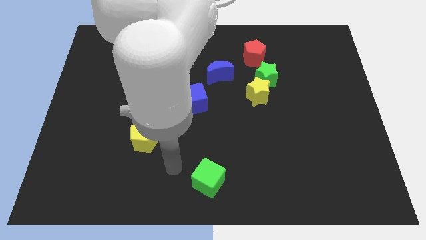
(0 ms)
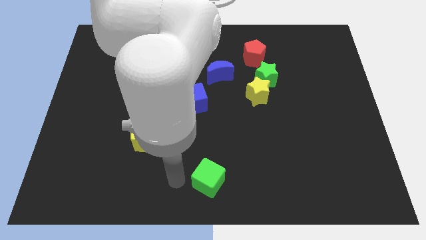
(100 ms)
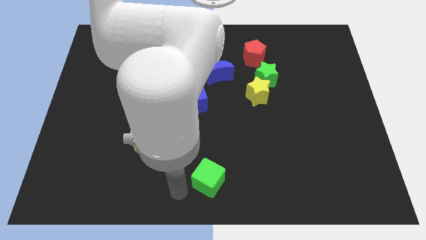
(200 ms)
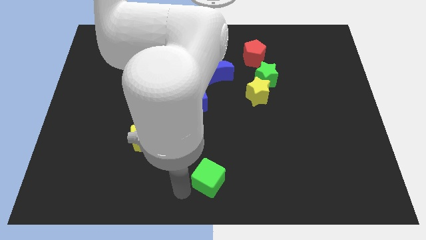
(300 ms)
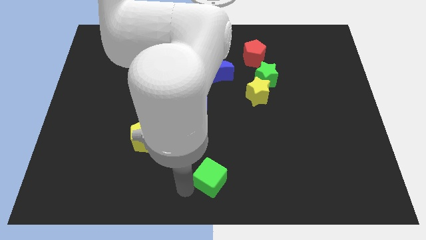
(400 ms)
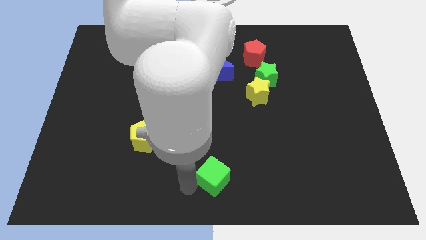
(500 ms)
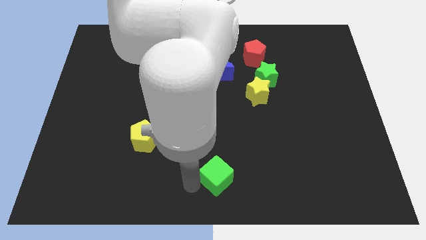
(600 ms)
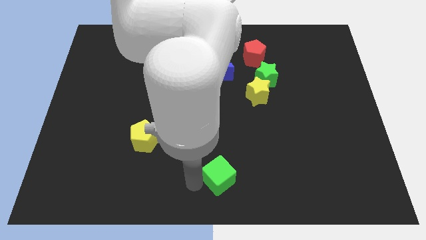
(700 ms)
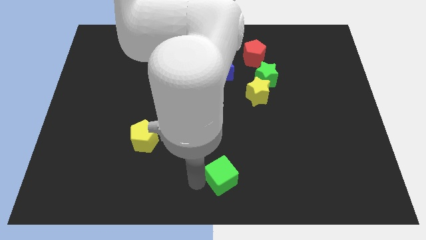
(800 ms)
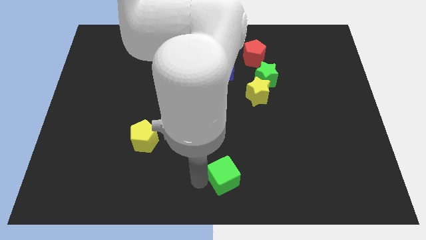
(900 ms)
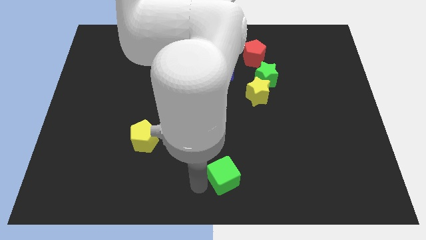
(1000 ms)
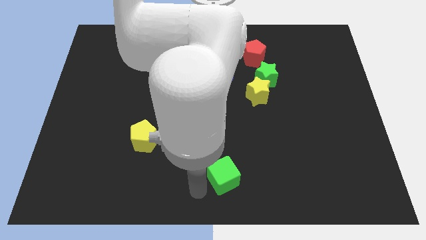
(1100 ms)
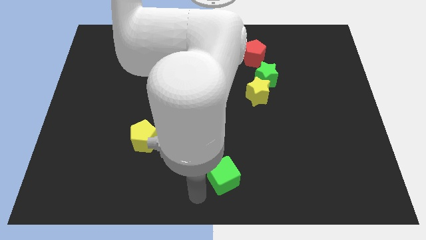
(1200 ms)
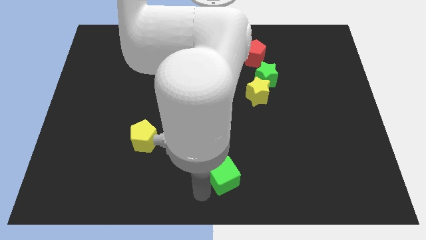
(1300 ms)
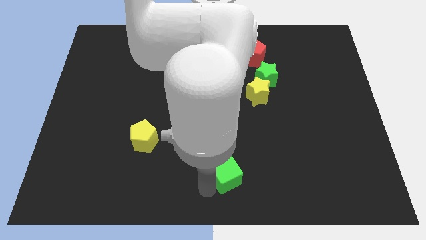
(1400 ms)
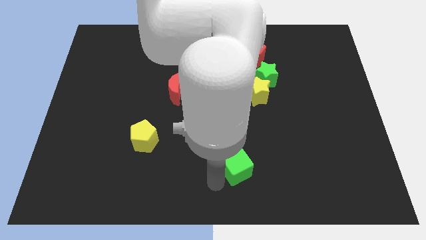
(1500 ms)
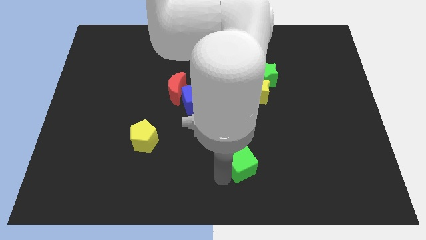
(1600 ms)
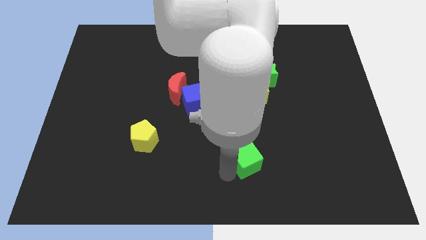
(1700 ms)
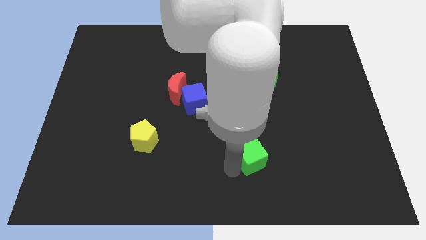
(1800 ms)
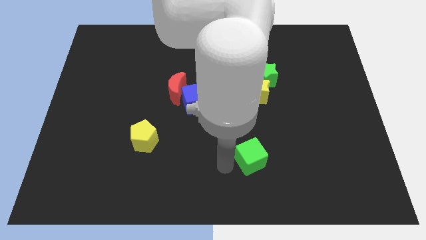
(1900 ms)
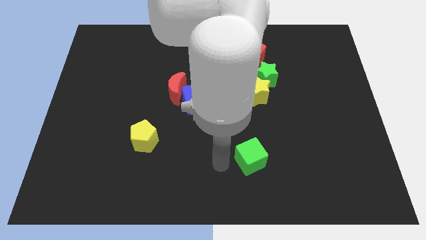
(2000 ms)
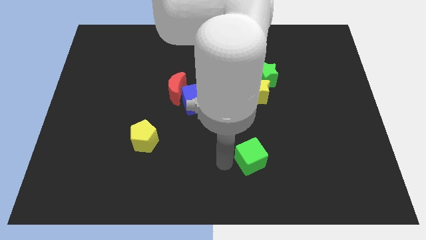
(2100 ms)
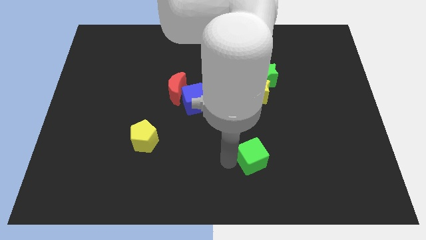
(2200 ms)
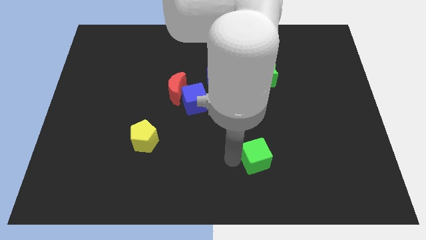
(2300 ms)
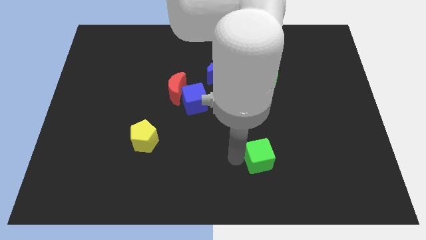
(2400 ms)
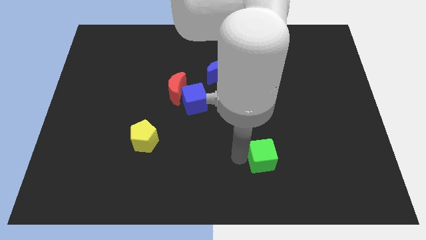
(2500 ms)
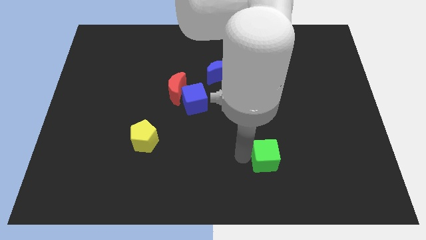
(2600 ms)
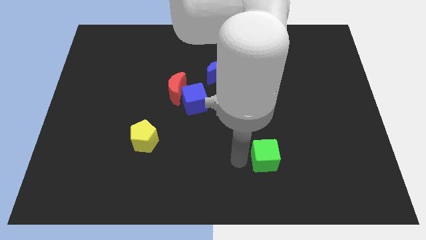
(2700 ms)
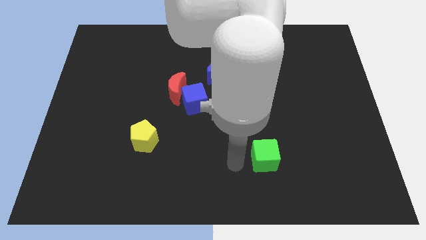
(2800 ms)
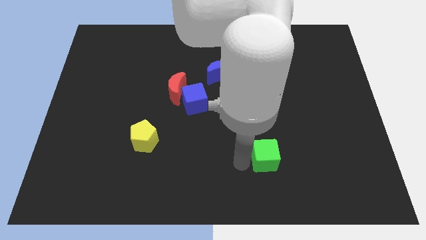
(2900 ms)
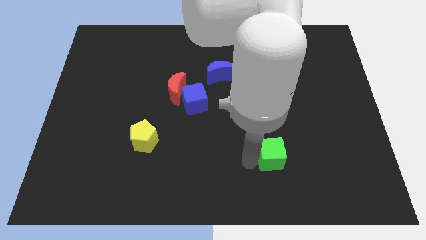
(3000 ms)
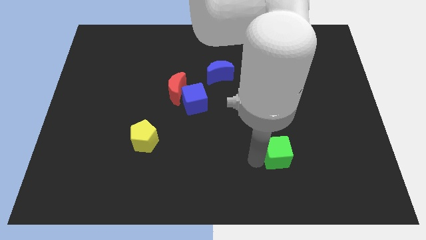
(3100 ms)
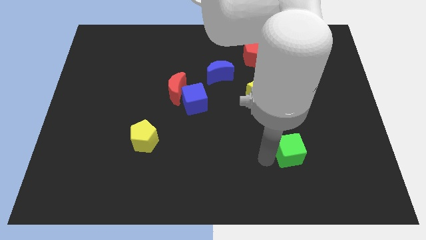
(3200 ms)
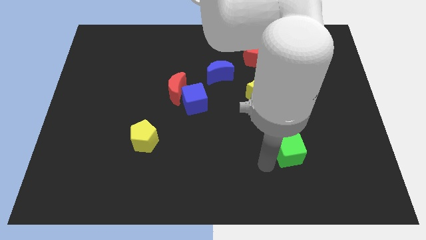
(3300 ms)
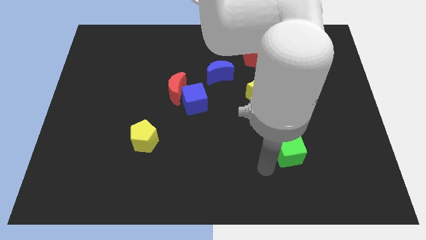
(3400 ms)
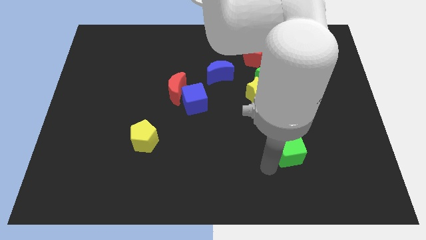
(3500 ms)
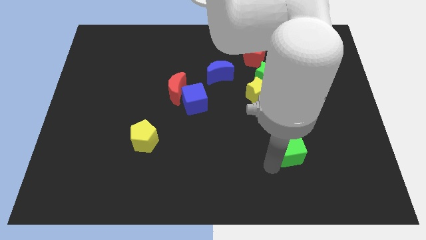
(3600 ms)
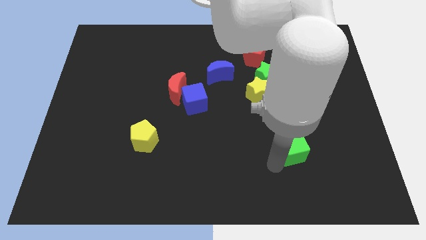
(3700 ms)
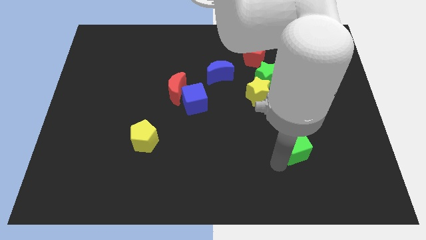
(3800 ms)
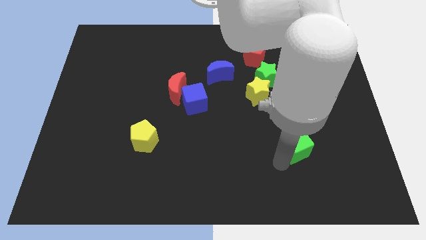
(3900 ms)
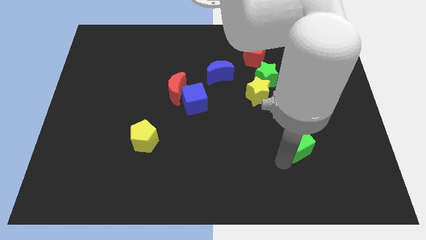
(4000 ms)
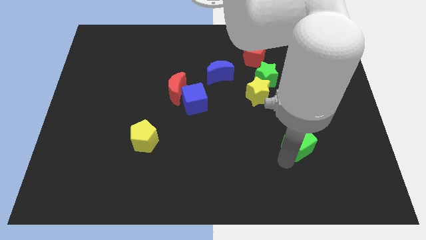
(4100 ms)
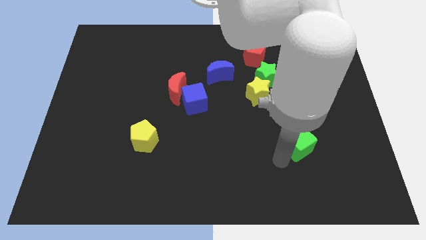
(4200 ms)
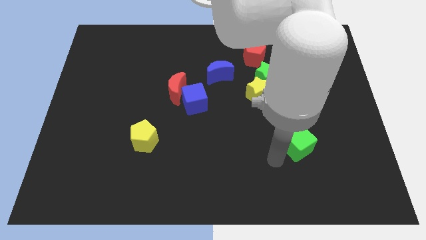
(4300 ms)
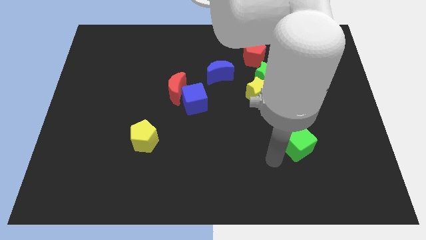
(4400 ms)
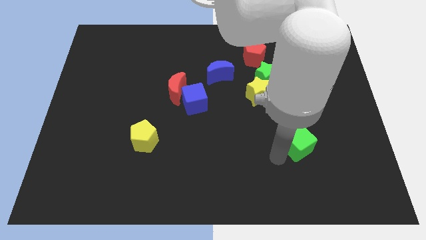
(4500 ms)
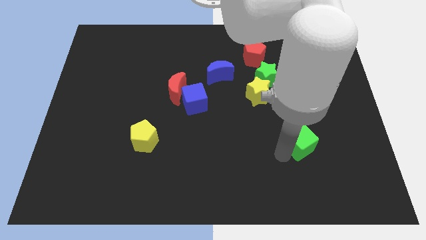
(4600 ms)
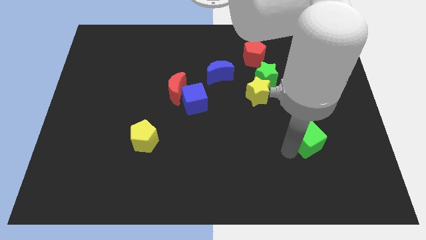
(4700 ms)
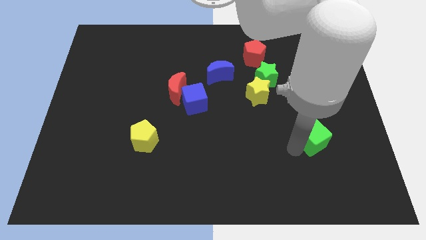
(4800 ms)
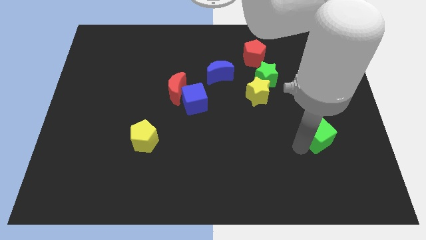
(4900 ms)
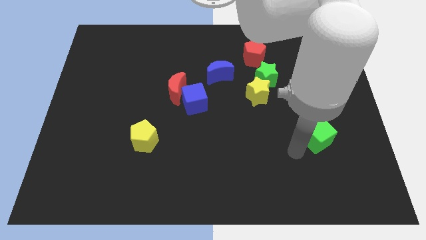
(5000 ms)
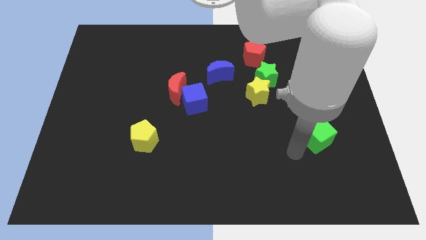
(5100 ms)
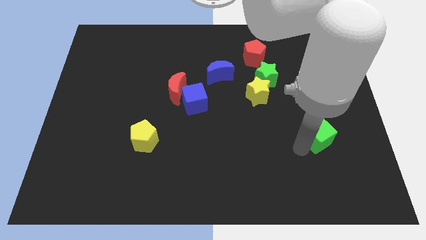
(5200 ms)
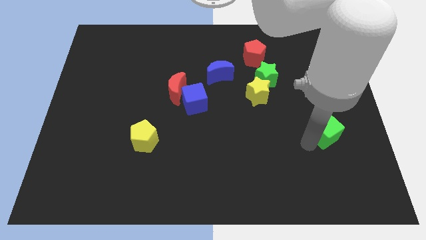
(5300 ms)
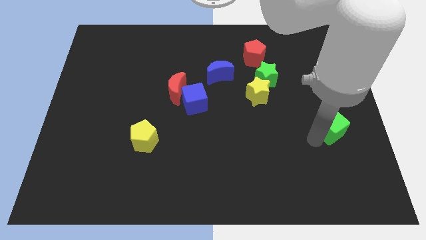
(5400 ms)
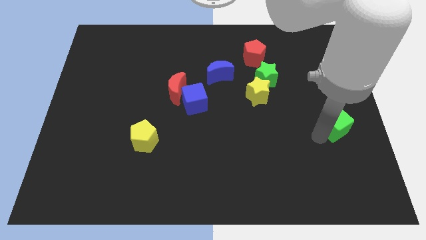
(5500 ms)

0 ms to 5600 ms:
slide the green cube to the right side of the board
